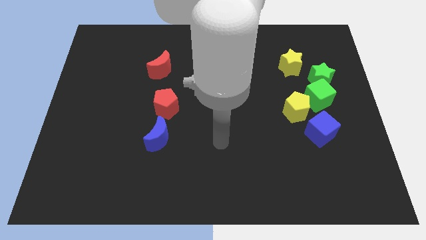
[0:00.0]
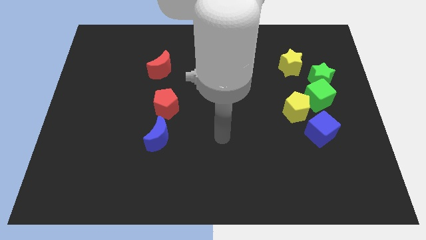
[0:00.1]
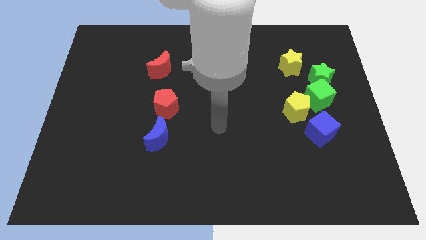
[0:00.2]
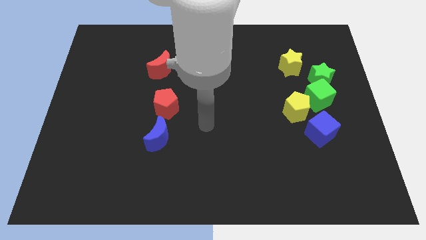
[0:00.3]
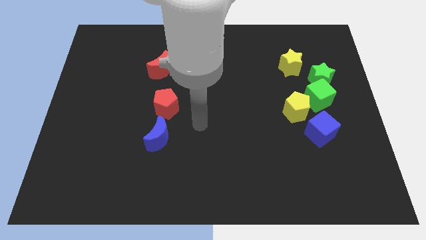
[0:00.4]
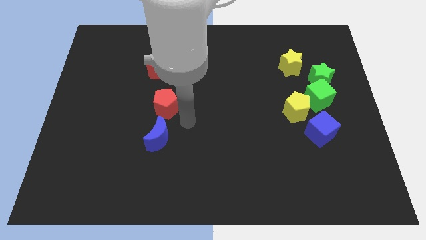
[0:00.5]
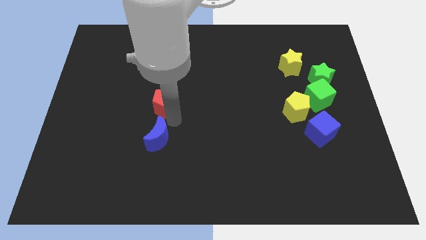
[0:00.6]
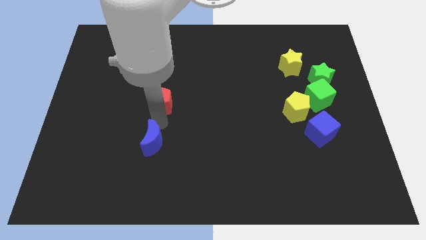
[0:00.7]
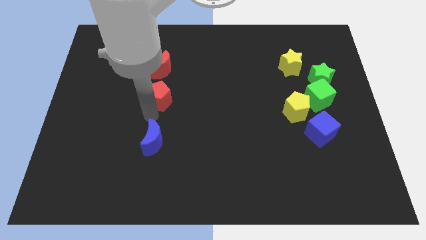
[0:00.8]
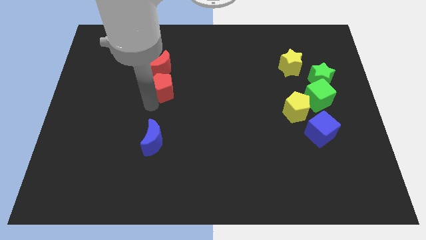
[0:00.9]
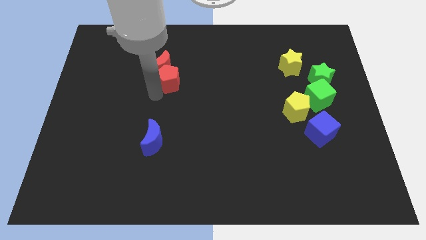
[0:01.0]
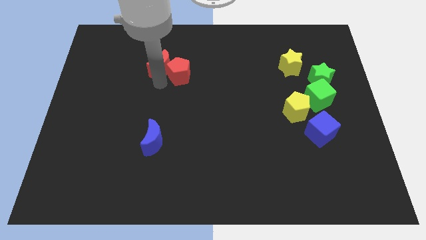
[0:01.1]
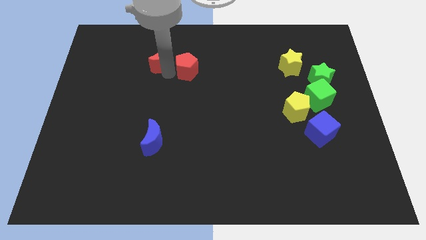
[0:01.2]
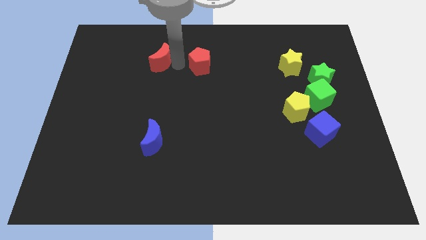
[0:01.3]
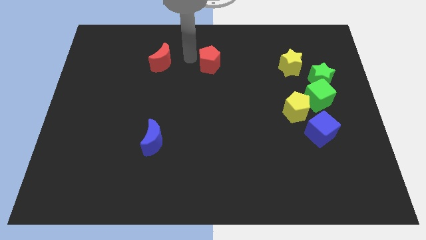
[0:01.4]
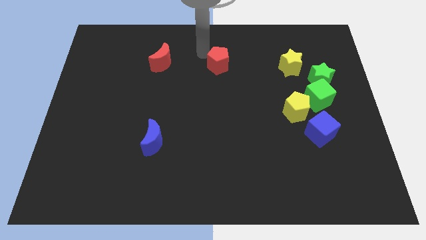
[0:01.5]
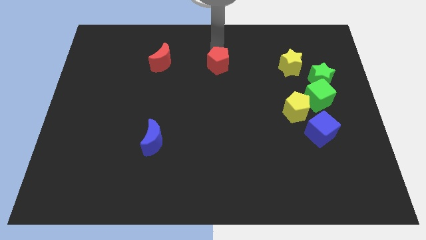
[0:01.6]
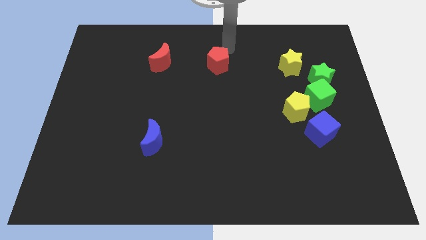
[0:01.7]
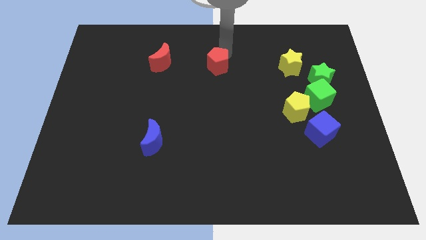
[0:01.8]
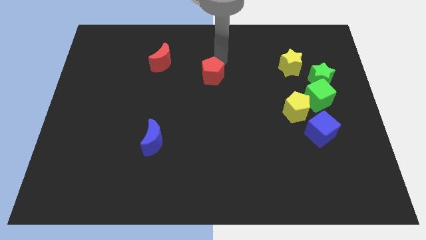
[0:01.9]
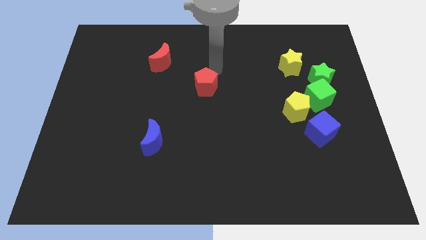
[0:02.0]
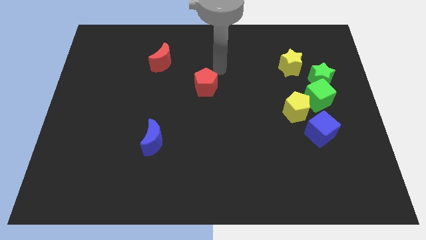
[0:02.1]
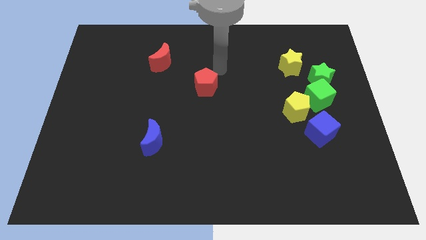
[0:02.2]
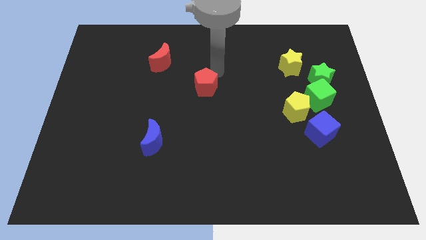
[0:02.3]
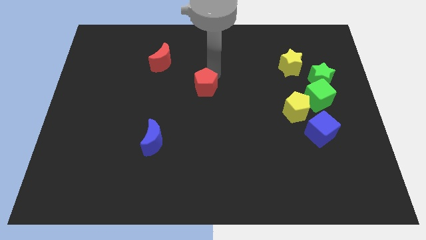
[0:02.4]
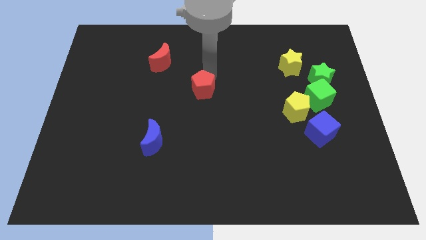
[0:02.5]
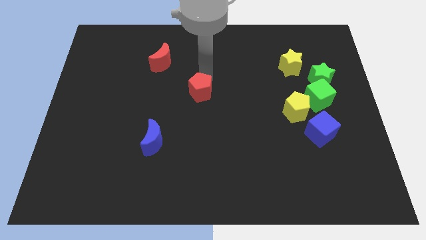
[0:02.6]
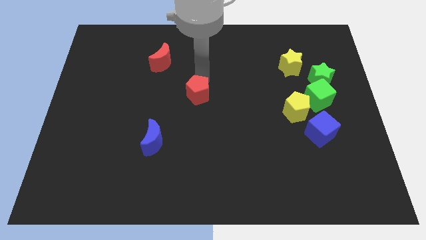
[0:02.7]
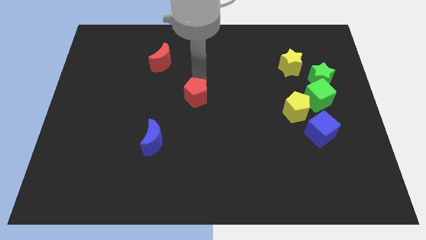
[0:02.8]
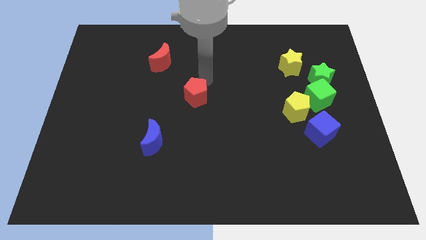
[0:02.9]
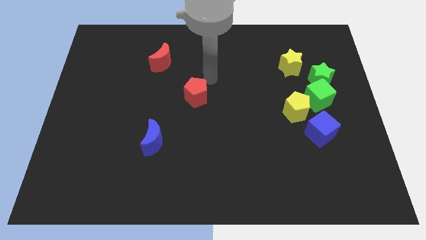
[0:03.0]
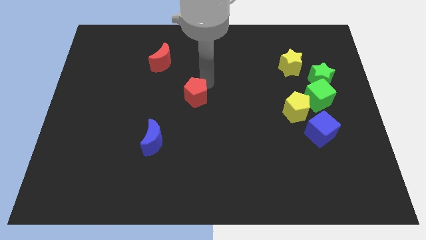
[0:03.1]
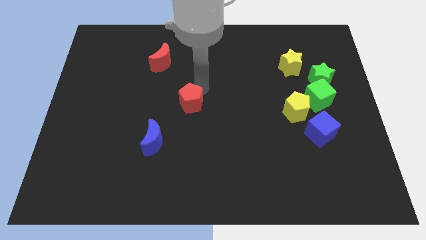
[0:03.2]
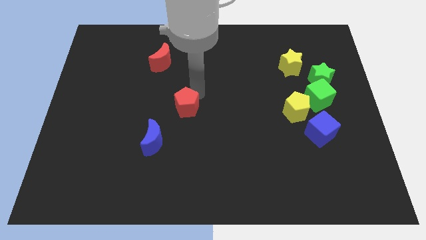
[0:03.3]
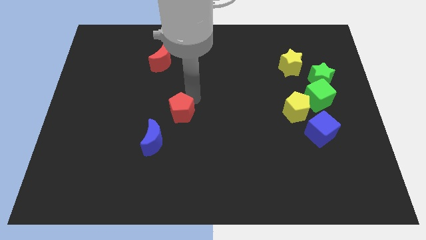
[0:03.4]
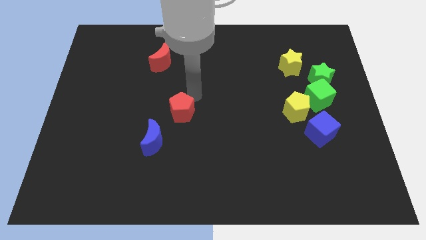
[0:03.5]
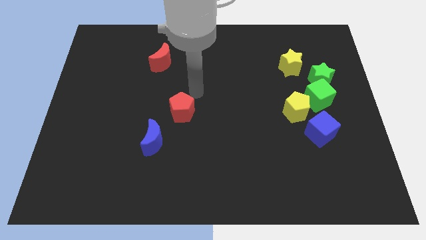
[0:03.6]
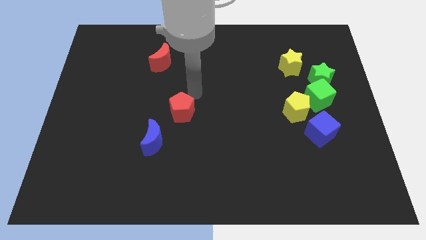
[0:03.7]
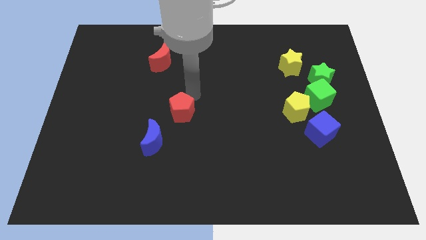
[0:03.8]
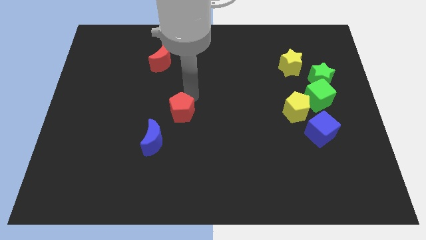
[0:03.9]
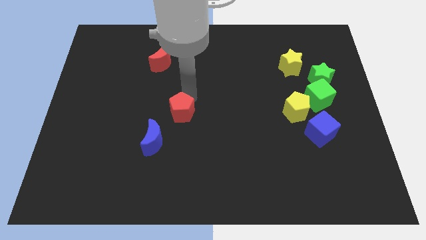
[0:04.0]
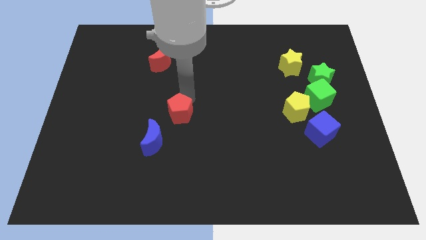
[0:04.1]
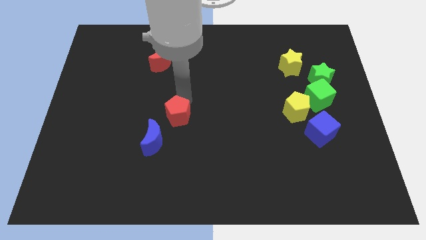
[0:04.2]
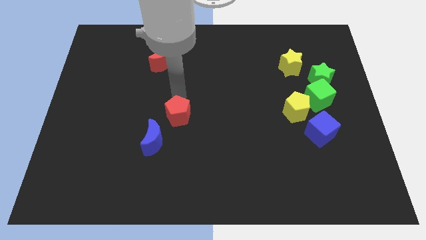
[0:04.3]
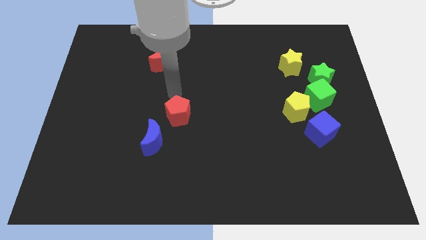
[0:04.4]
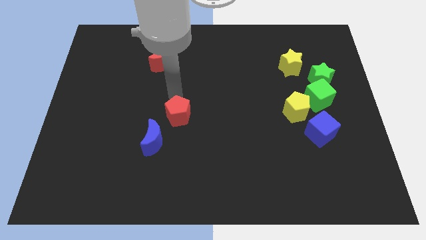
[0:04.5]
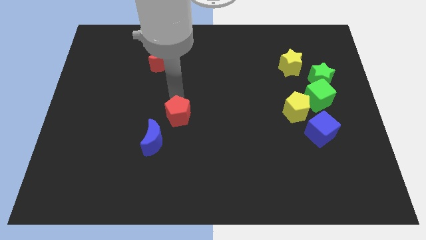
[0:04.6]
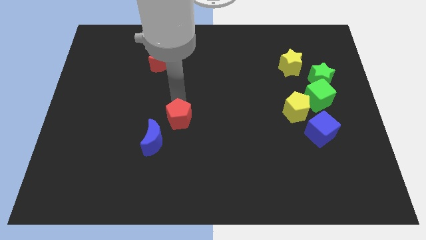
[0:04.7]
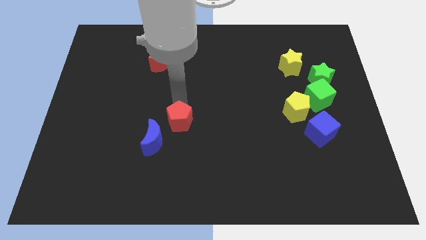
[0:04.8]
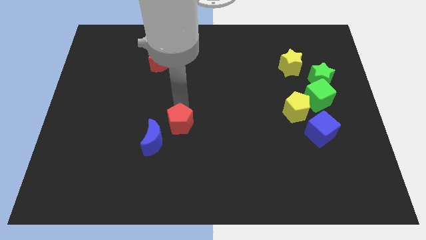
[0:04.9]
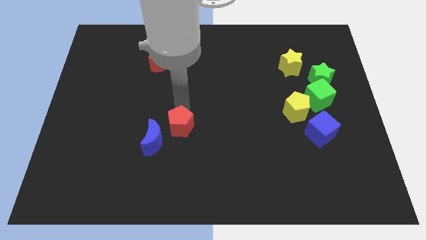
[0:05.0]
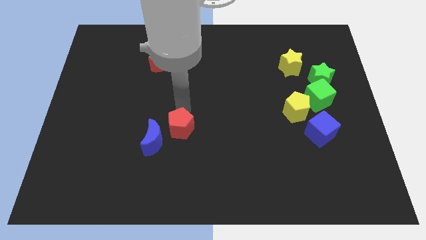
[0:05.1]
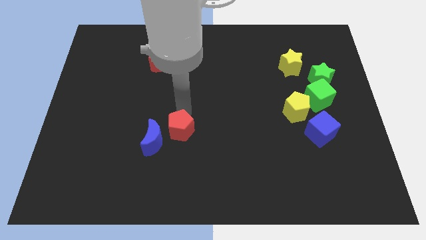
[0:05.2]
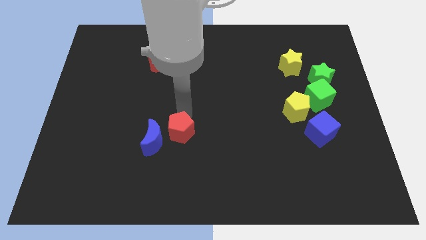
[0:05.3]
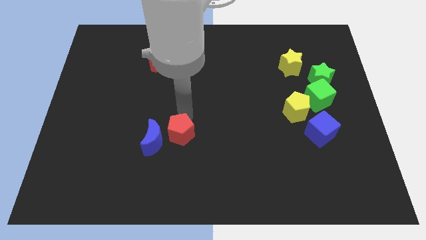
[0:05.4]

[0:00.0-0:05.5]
push the red pentagon downwards a little

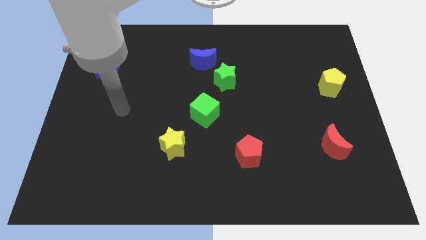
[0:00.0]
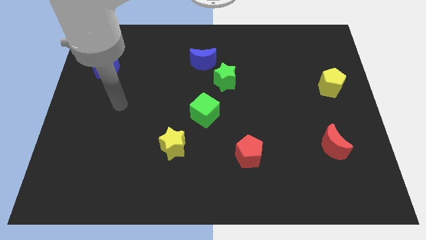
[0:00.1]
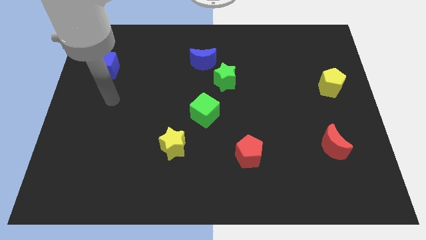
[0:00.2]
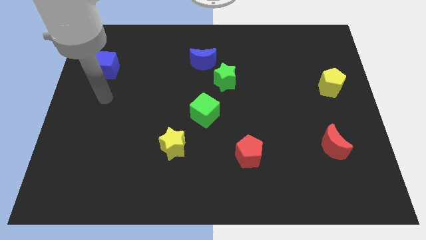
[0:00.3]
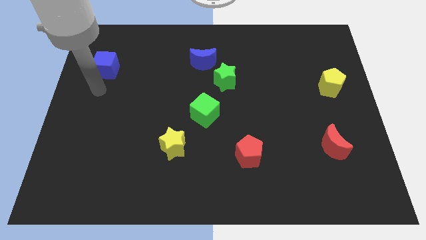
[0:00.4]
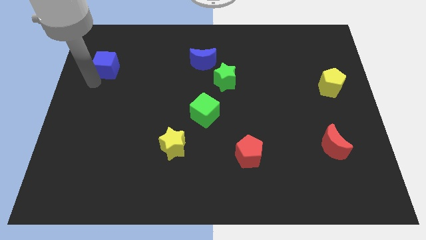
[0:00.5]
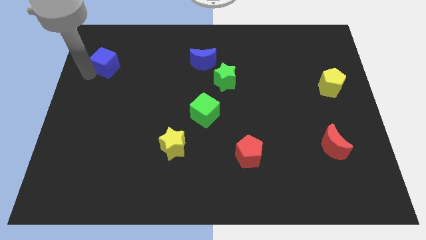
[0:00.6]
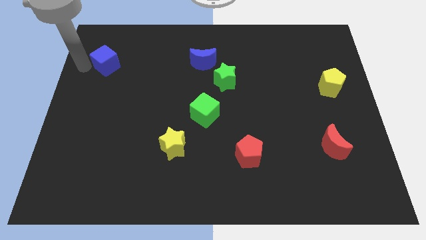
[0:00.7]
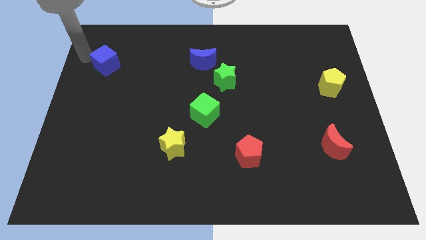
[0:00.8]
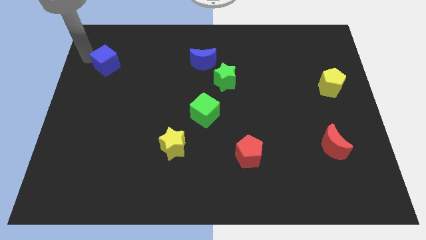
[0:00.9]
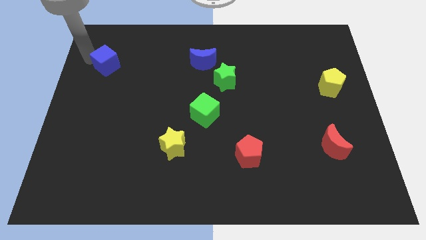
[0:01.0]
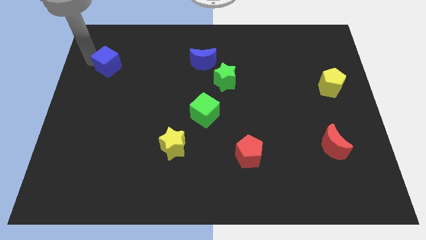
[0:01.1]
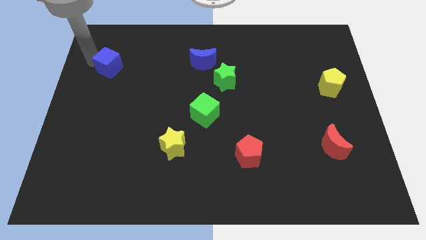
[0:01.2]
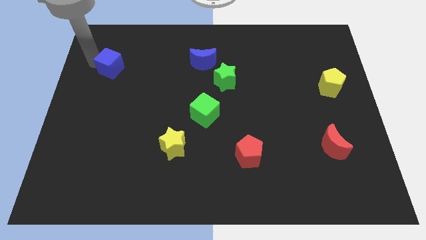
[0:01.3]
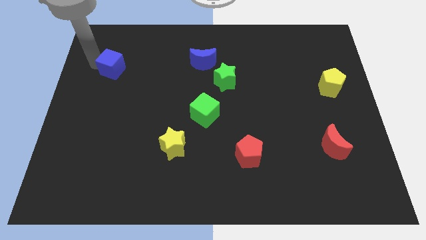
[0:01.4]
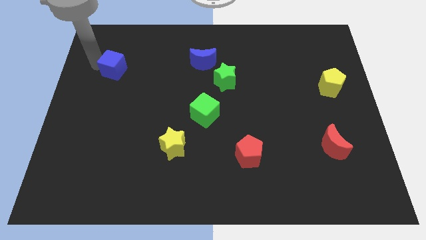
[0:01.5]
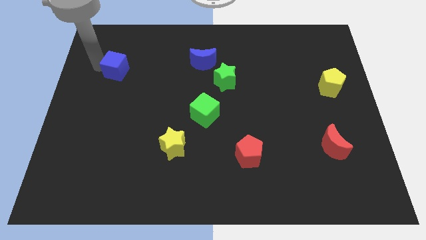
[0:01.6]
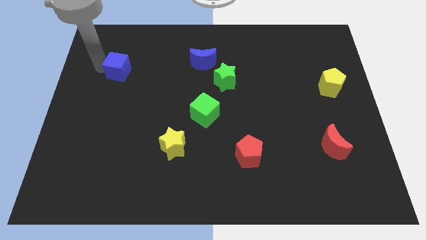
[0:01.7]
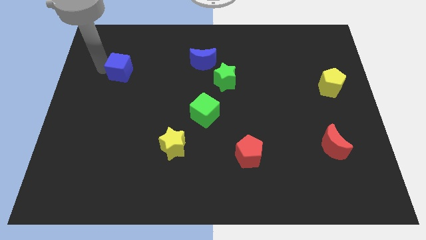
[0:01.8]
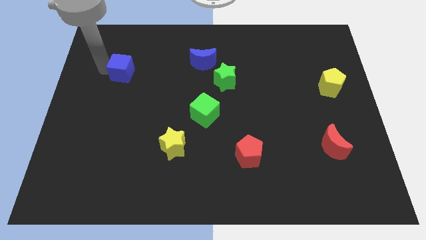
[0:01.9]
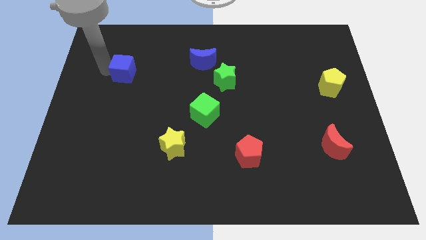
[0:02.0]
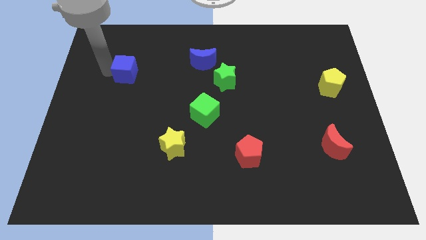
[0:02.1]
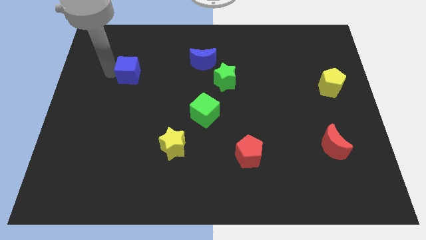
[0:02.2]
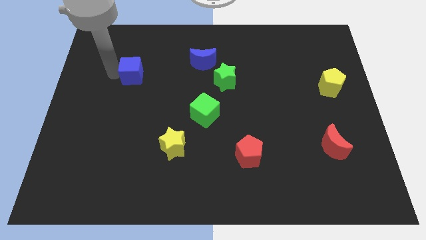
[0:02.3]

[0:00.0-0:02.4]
push the blue cube to the right somewhat

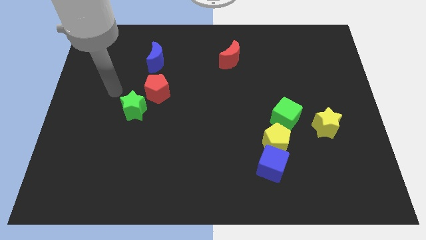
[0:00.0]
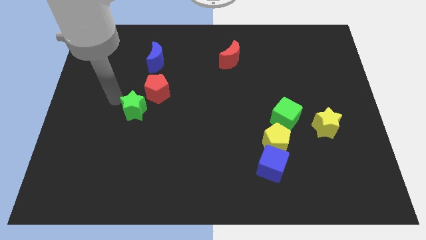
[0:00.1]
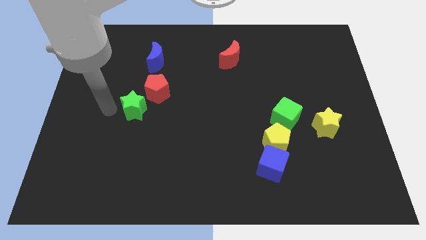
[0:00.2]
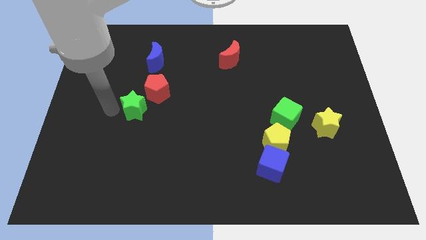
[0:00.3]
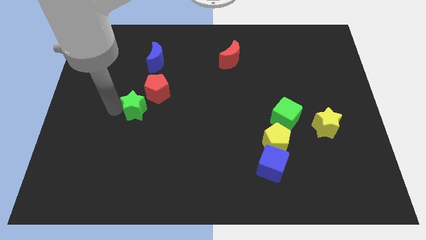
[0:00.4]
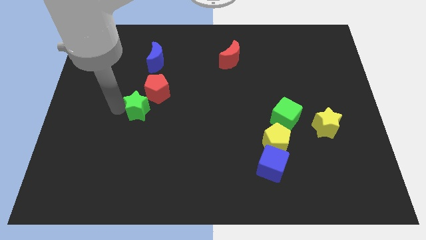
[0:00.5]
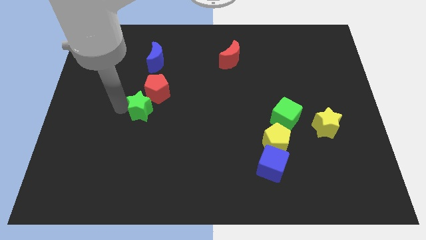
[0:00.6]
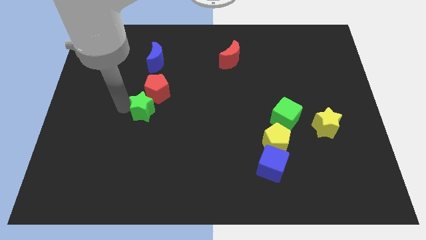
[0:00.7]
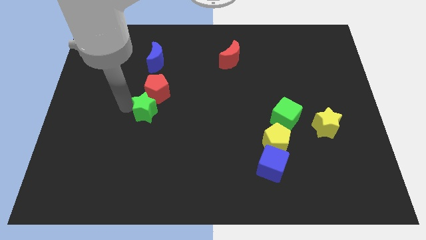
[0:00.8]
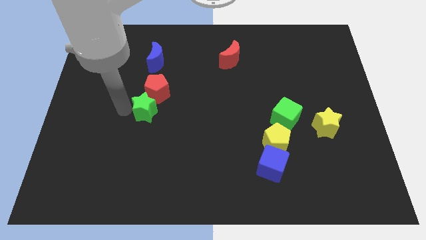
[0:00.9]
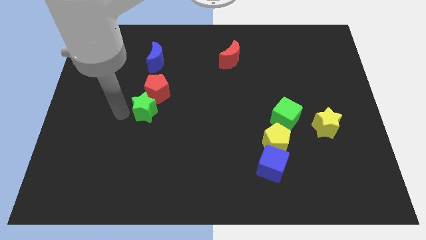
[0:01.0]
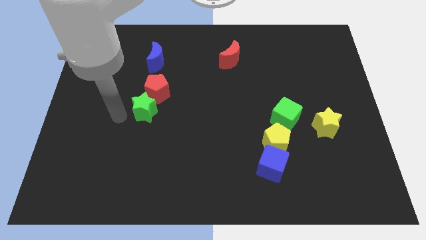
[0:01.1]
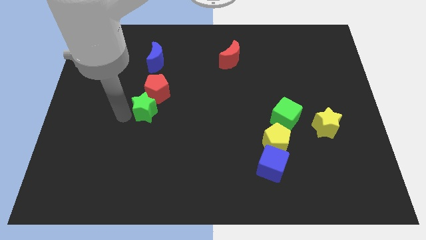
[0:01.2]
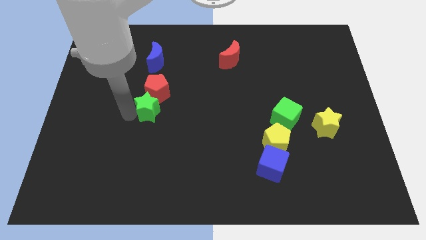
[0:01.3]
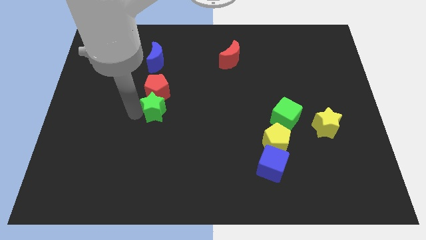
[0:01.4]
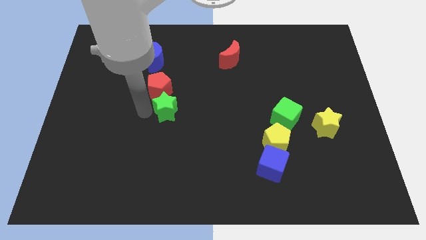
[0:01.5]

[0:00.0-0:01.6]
move the green star a little right
